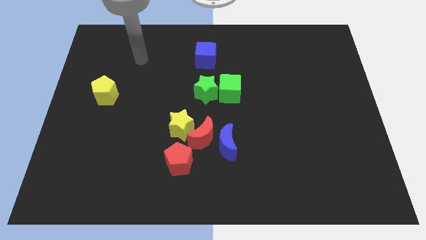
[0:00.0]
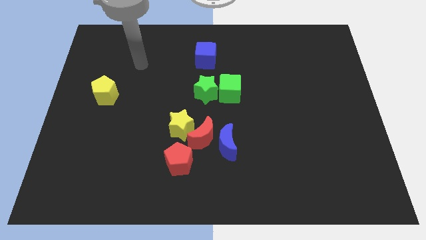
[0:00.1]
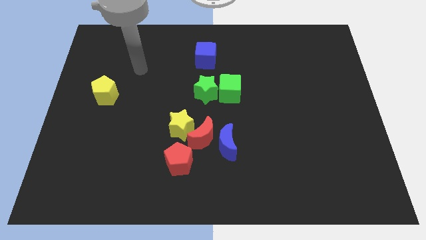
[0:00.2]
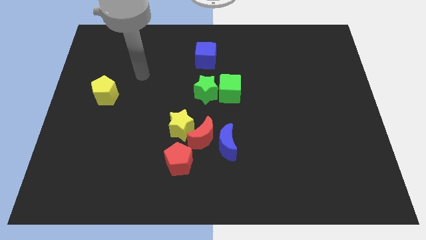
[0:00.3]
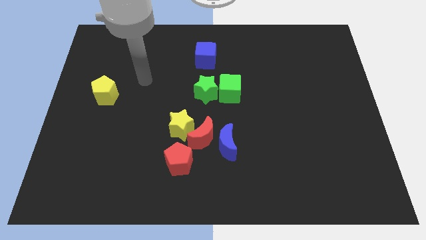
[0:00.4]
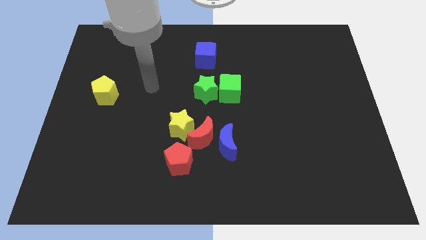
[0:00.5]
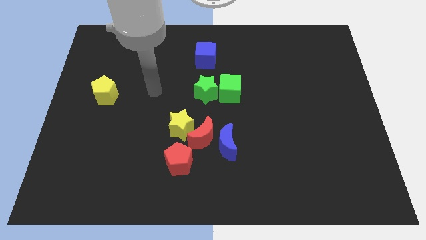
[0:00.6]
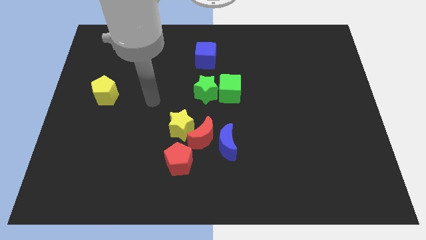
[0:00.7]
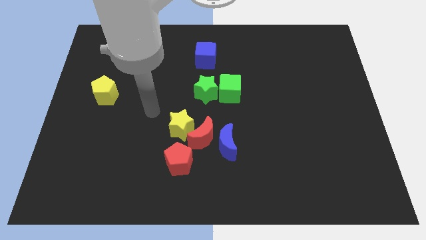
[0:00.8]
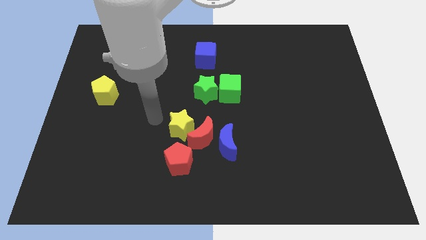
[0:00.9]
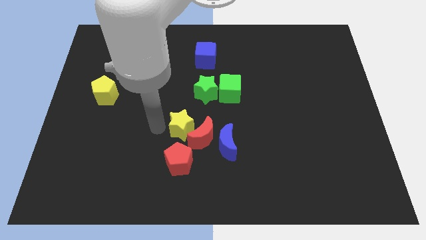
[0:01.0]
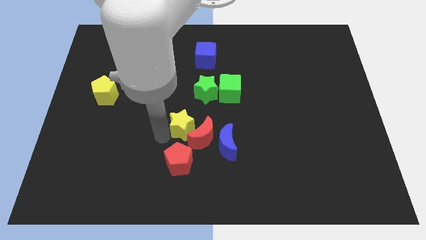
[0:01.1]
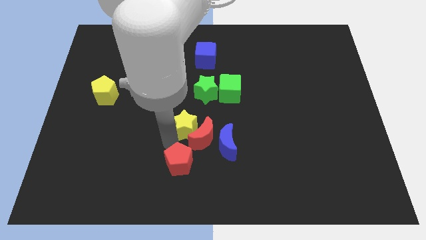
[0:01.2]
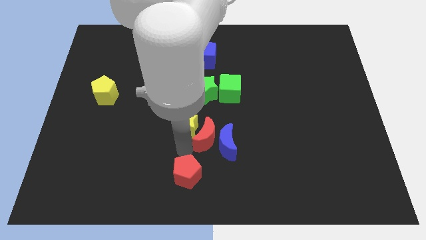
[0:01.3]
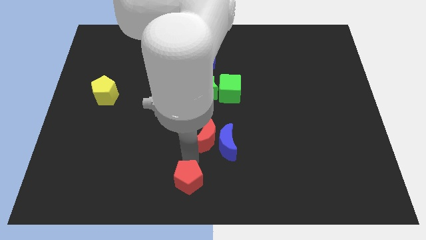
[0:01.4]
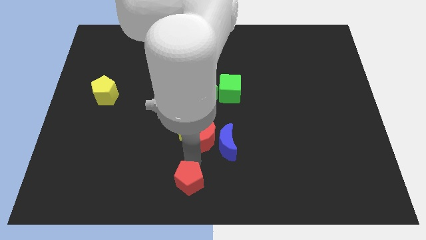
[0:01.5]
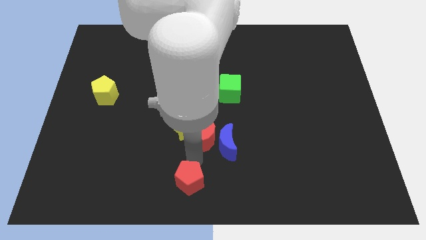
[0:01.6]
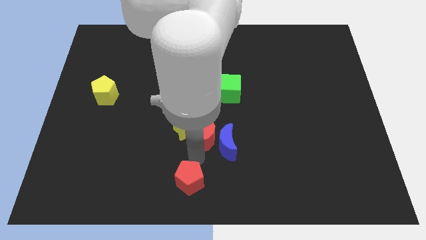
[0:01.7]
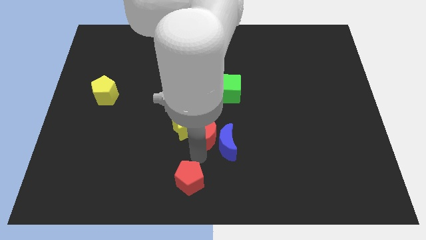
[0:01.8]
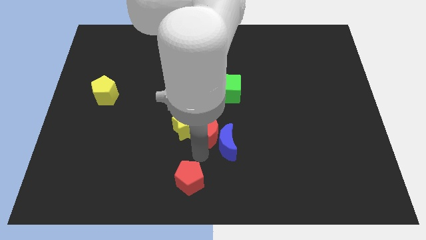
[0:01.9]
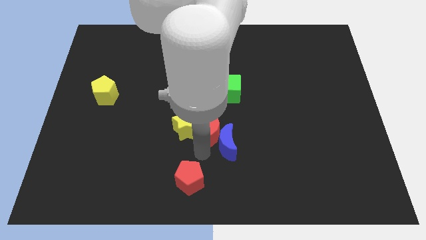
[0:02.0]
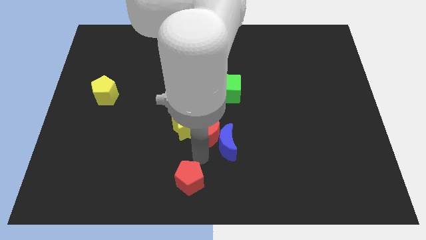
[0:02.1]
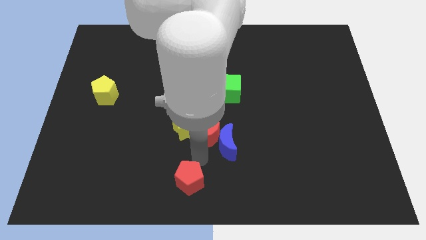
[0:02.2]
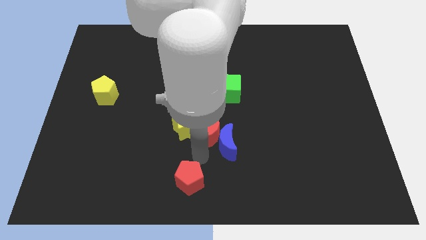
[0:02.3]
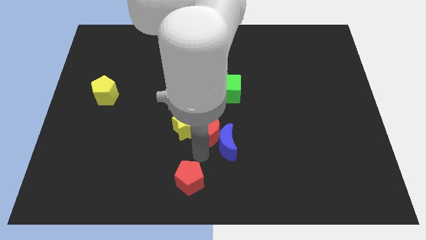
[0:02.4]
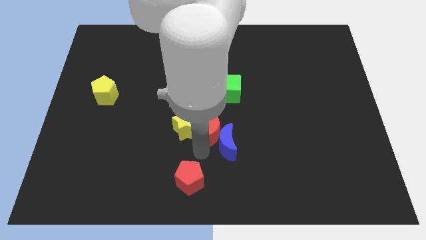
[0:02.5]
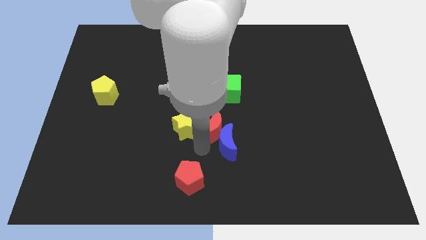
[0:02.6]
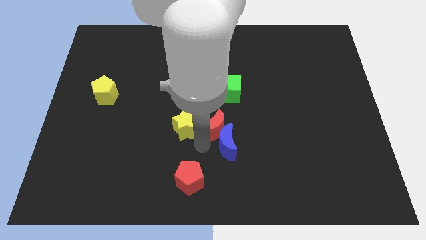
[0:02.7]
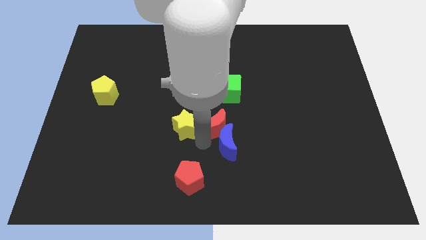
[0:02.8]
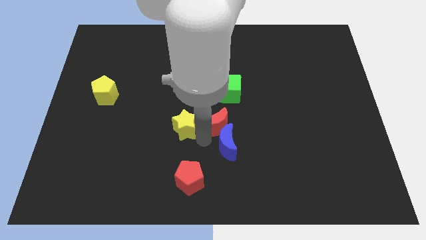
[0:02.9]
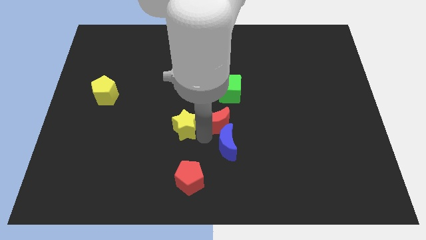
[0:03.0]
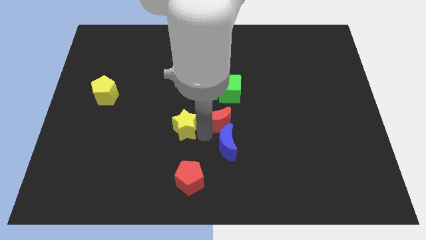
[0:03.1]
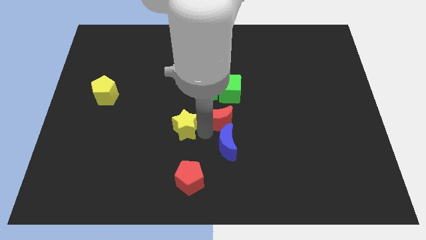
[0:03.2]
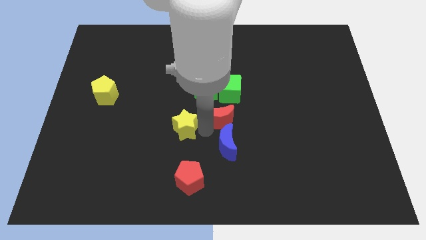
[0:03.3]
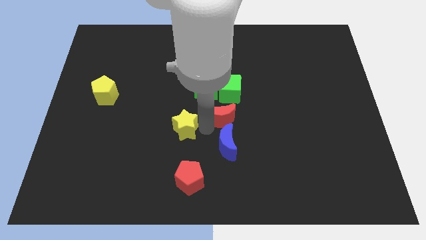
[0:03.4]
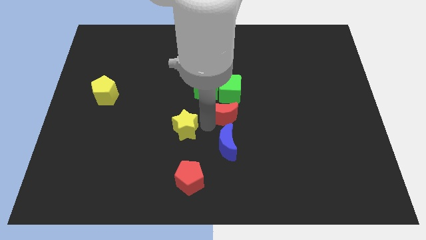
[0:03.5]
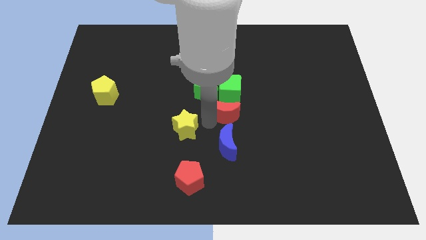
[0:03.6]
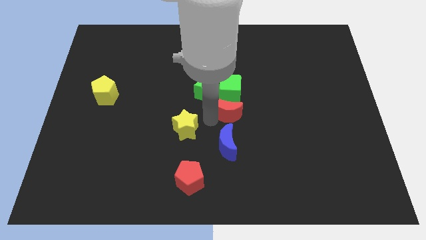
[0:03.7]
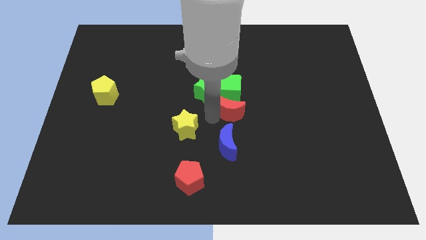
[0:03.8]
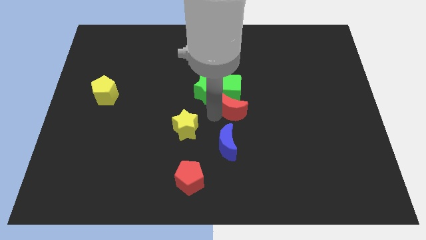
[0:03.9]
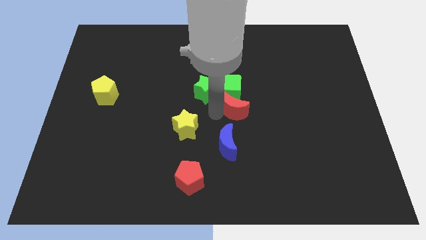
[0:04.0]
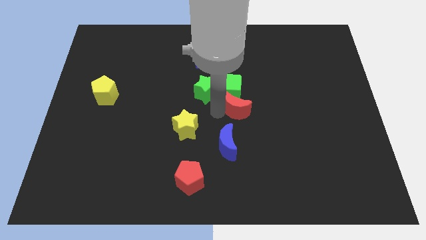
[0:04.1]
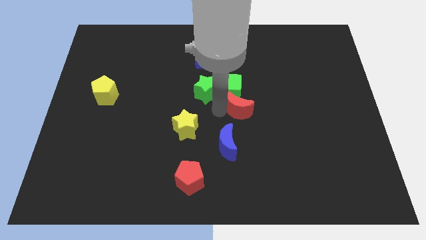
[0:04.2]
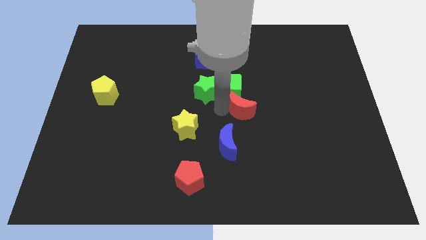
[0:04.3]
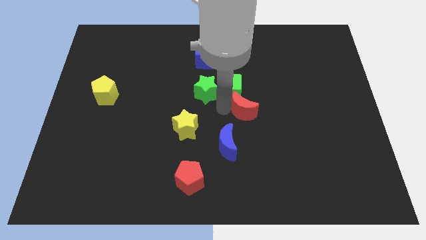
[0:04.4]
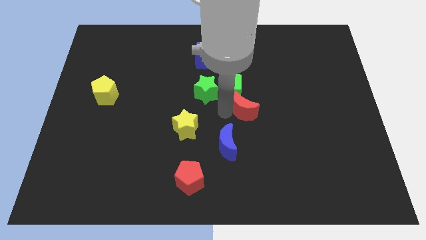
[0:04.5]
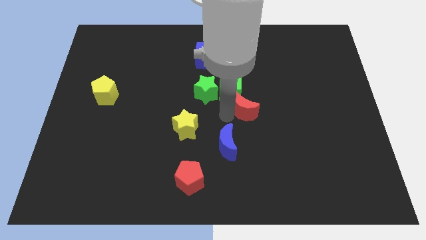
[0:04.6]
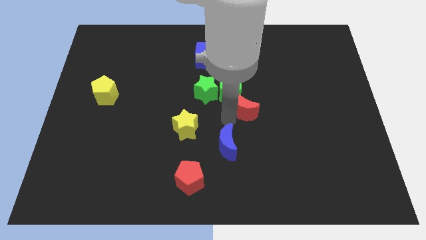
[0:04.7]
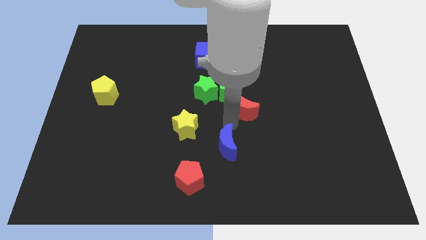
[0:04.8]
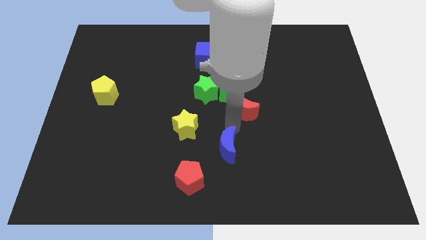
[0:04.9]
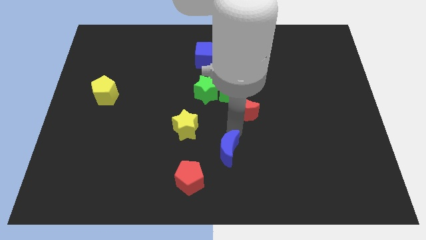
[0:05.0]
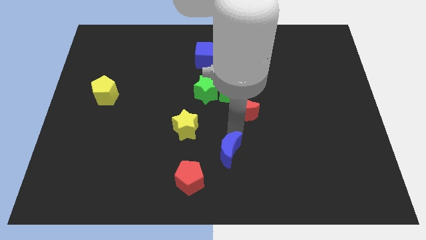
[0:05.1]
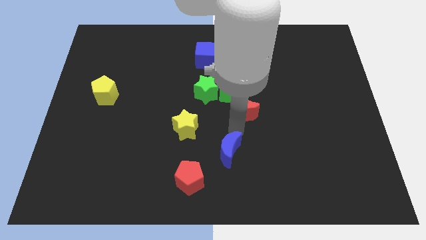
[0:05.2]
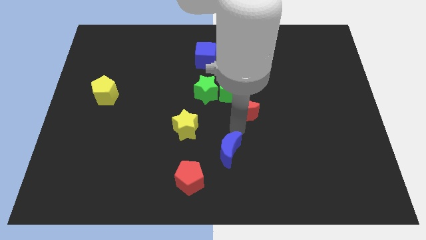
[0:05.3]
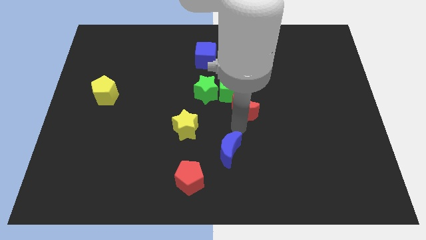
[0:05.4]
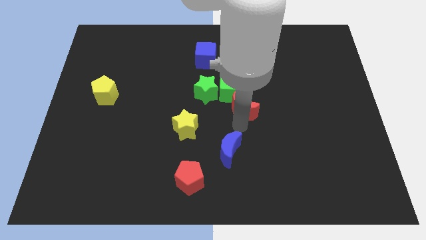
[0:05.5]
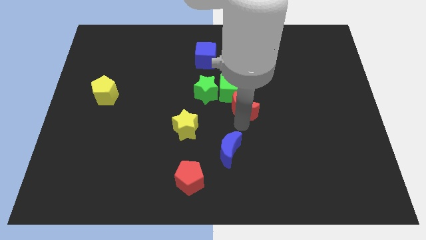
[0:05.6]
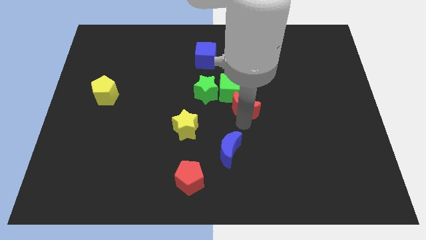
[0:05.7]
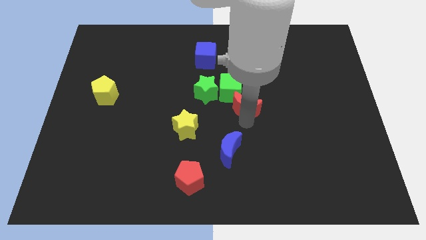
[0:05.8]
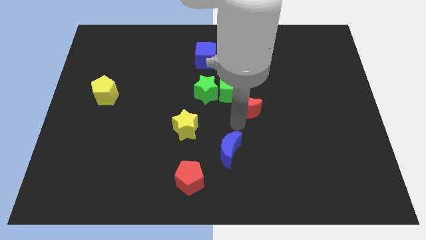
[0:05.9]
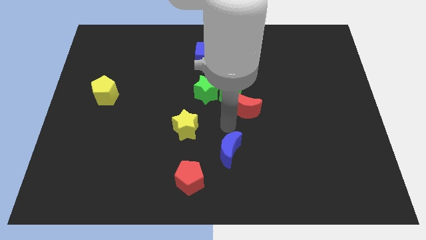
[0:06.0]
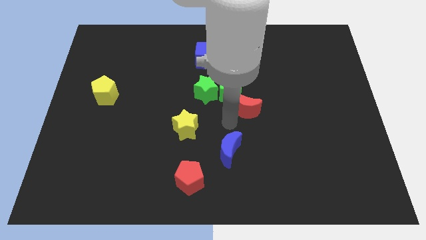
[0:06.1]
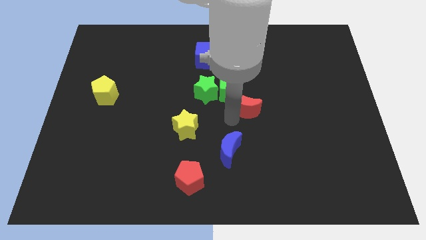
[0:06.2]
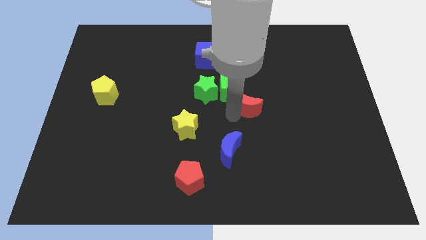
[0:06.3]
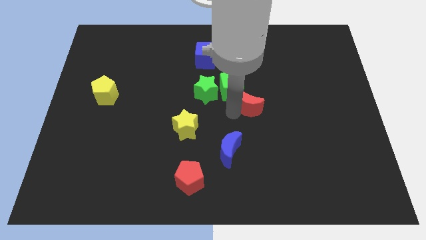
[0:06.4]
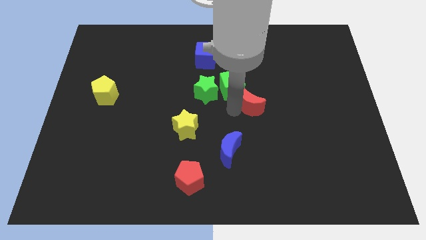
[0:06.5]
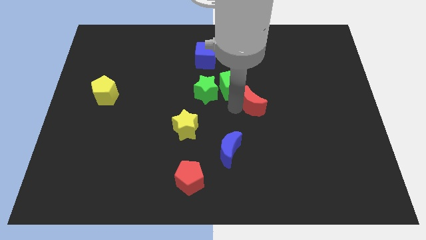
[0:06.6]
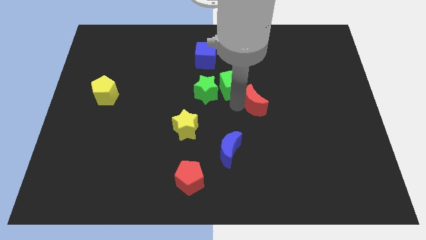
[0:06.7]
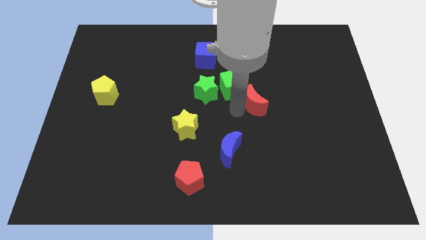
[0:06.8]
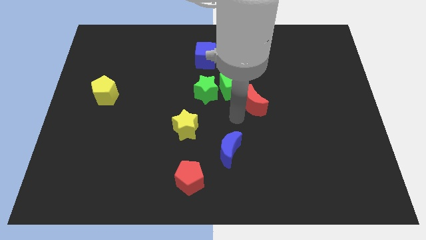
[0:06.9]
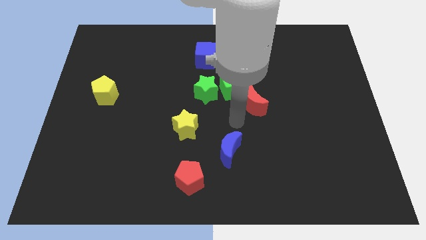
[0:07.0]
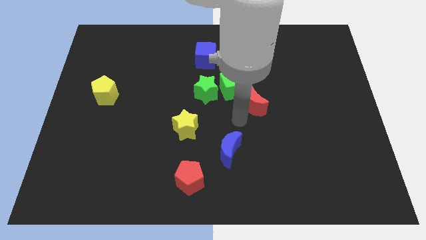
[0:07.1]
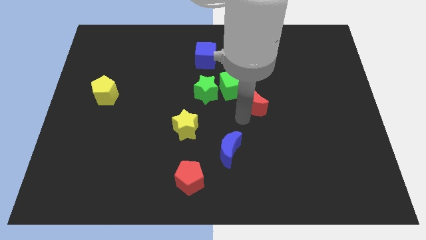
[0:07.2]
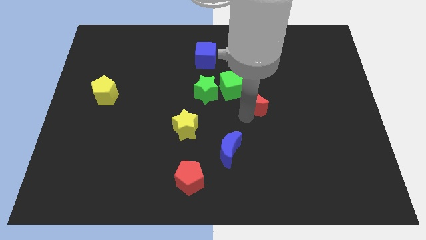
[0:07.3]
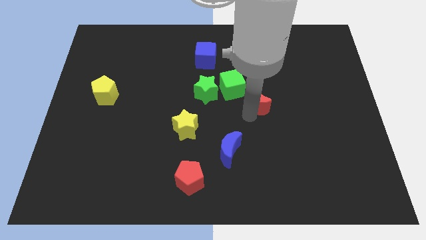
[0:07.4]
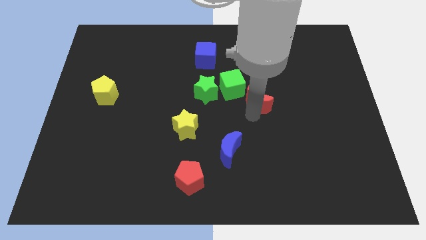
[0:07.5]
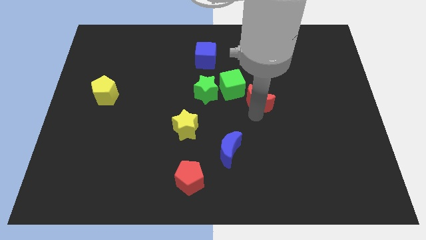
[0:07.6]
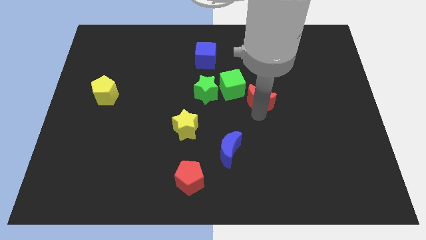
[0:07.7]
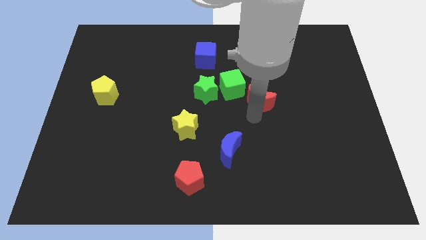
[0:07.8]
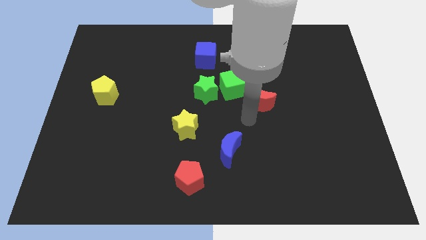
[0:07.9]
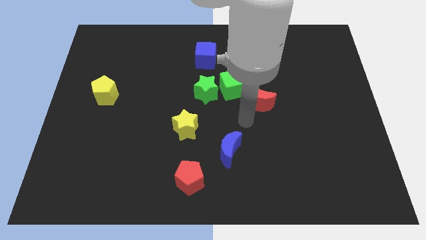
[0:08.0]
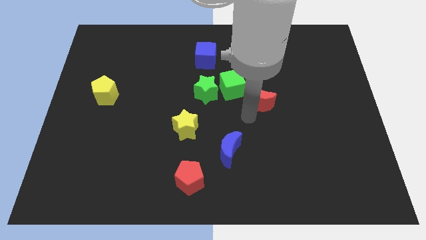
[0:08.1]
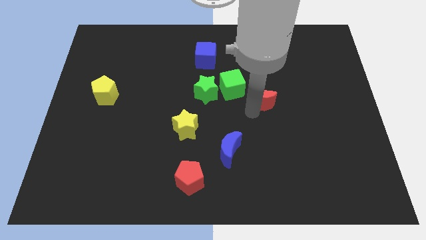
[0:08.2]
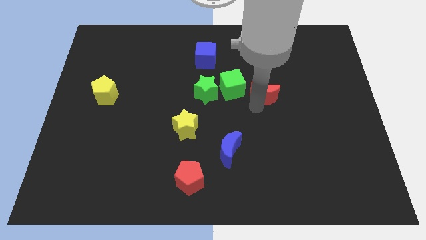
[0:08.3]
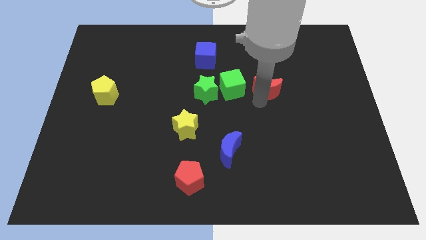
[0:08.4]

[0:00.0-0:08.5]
move the red moon upwards and right
